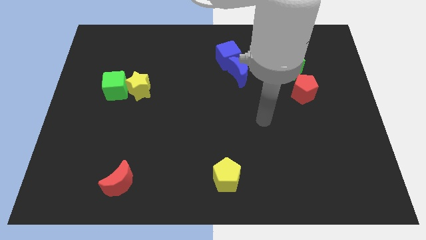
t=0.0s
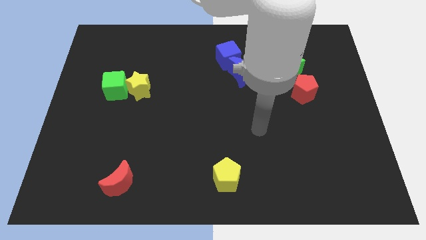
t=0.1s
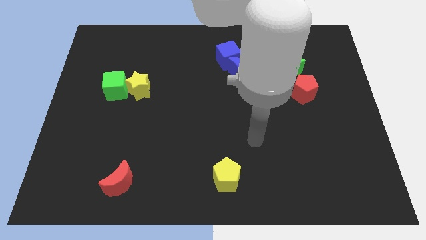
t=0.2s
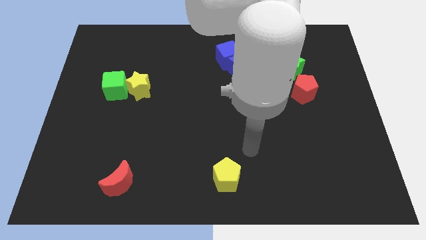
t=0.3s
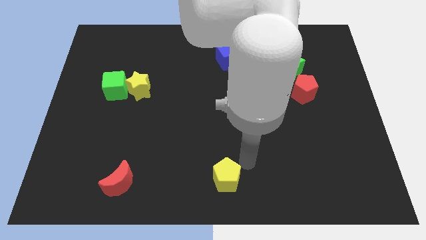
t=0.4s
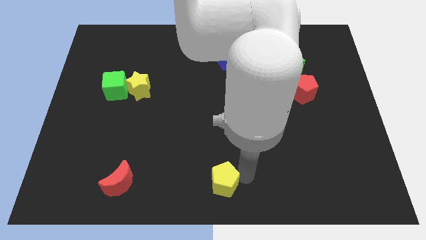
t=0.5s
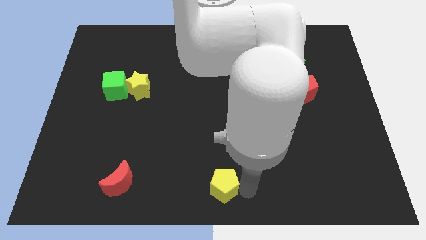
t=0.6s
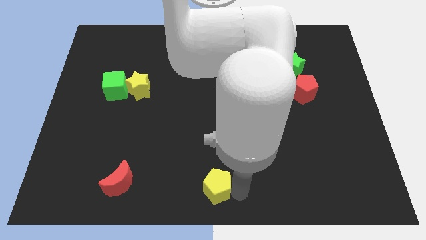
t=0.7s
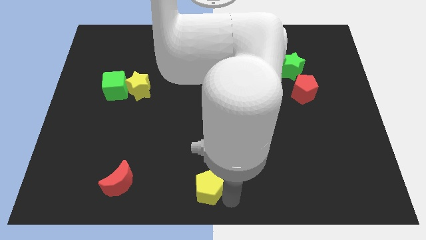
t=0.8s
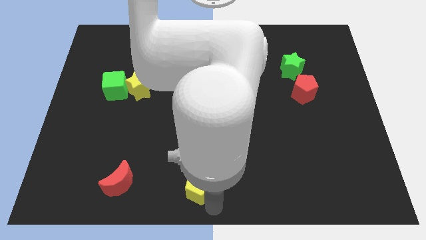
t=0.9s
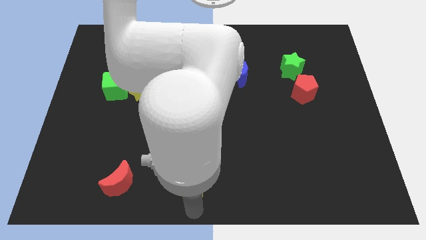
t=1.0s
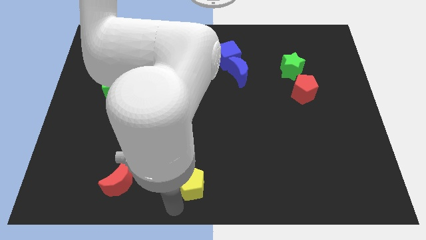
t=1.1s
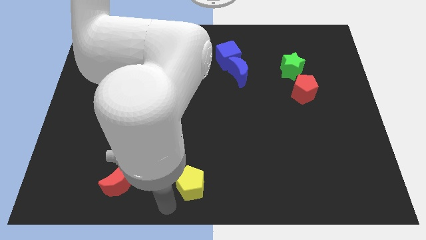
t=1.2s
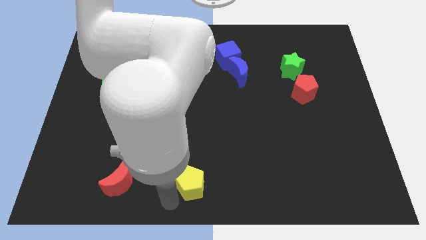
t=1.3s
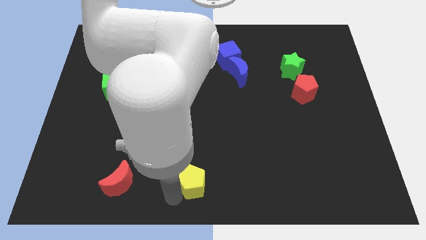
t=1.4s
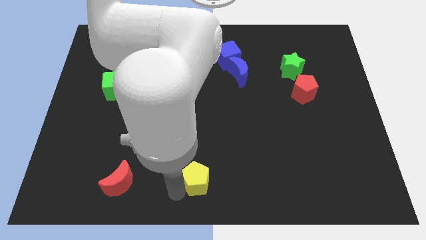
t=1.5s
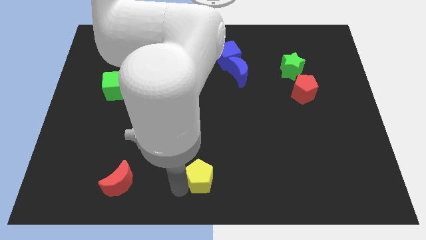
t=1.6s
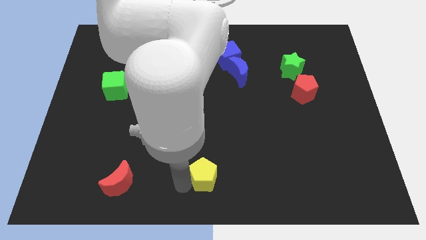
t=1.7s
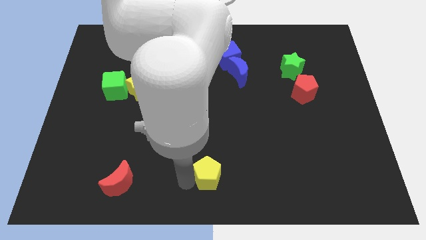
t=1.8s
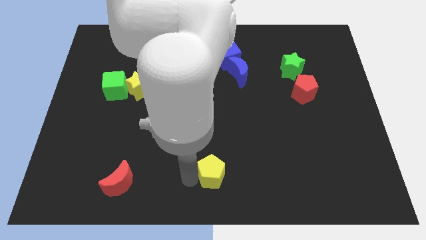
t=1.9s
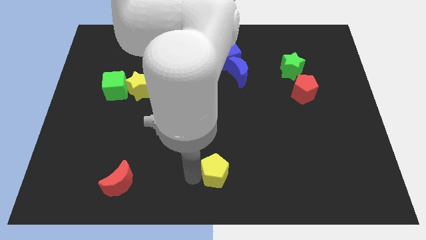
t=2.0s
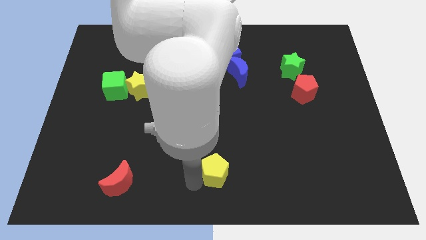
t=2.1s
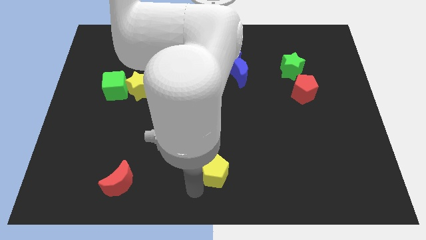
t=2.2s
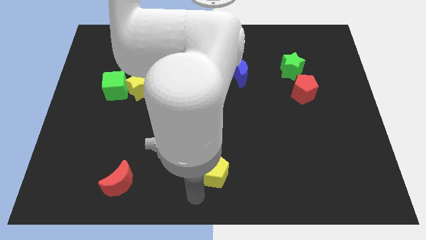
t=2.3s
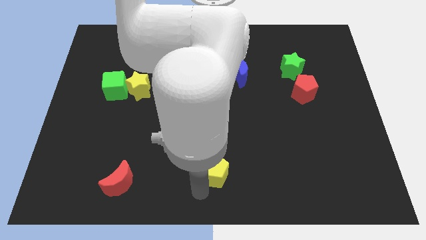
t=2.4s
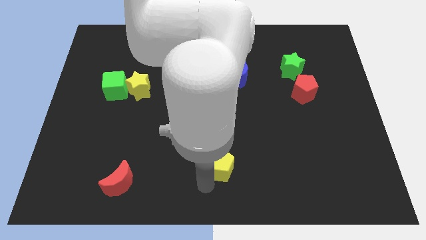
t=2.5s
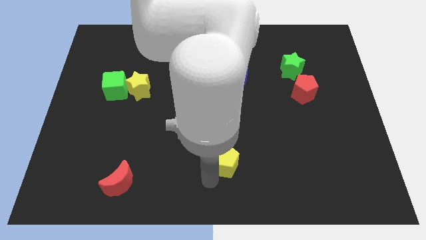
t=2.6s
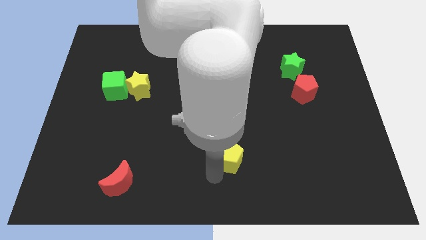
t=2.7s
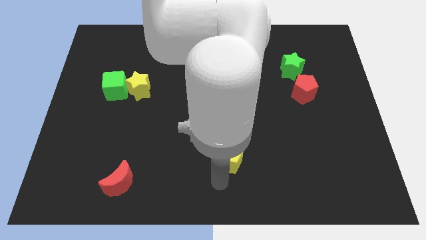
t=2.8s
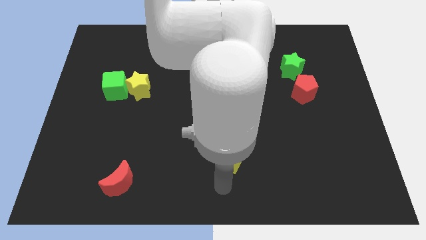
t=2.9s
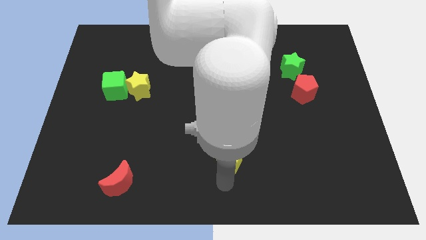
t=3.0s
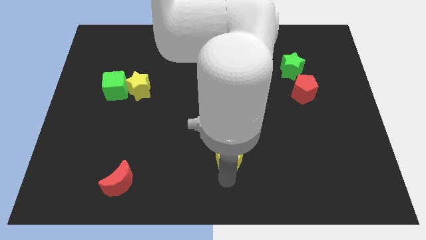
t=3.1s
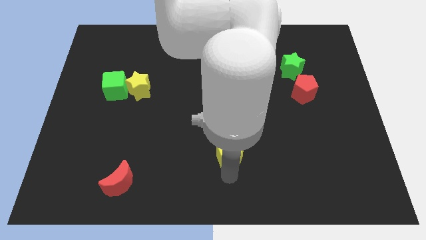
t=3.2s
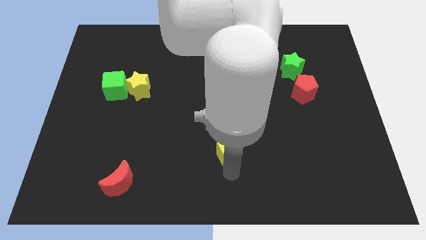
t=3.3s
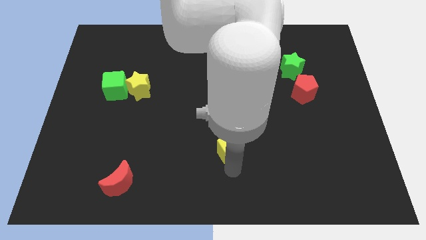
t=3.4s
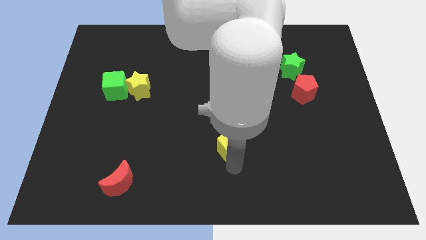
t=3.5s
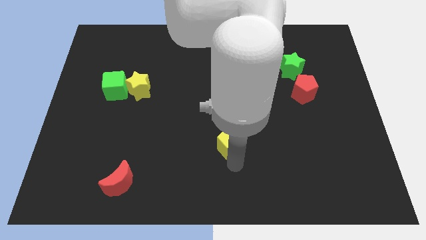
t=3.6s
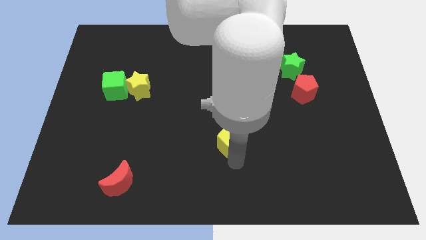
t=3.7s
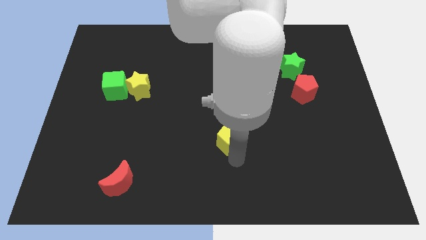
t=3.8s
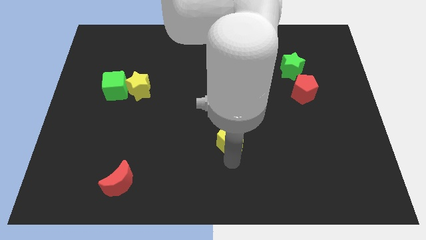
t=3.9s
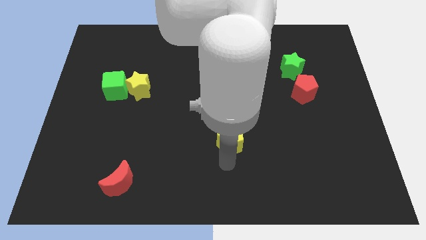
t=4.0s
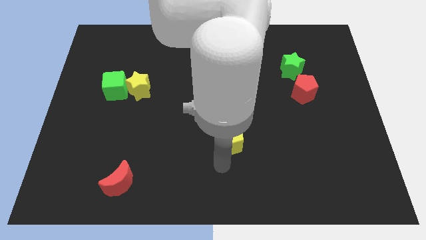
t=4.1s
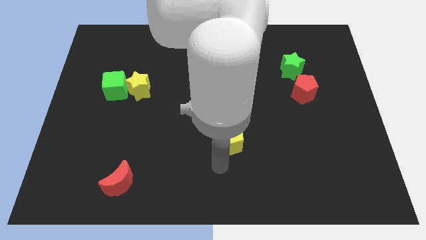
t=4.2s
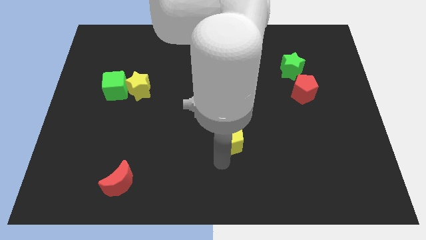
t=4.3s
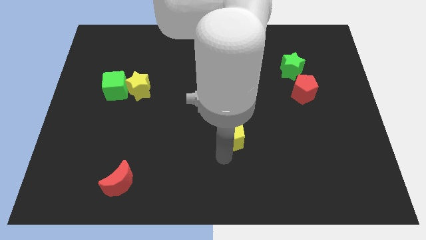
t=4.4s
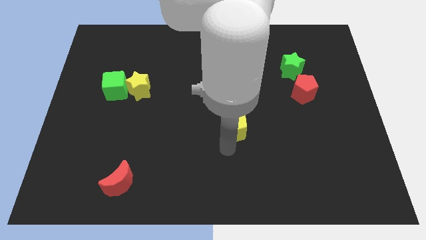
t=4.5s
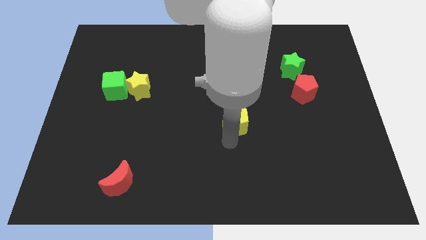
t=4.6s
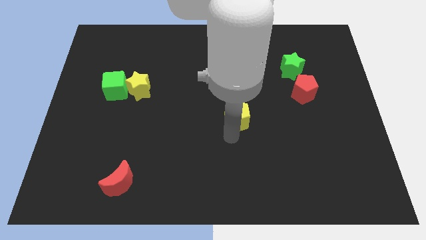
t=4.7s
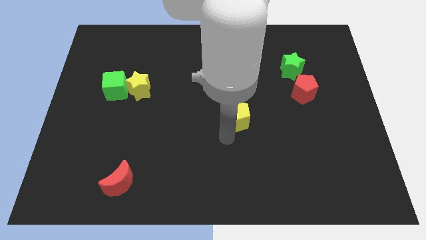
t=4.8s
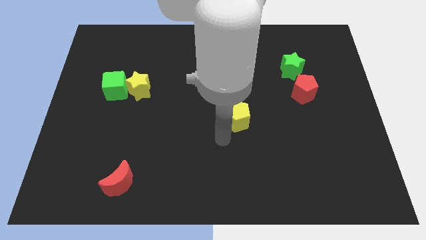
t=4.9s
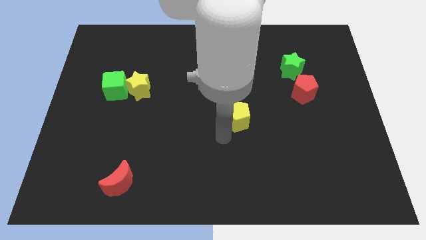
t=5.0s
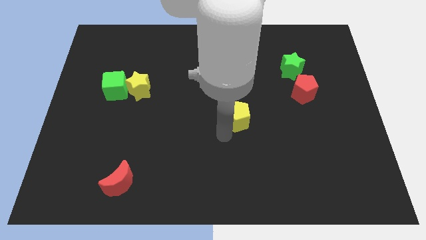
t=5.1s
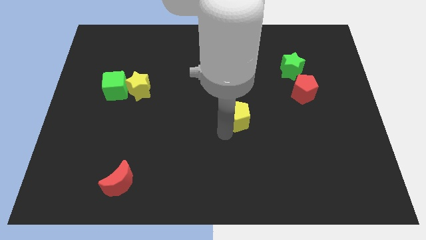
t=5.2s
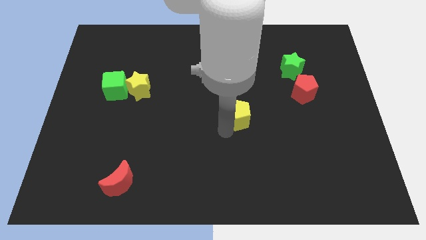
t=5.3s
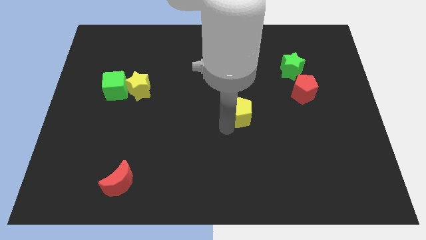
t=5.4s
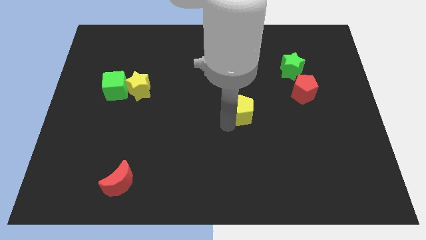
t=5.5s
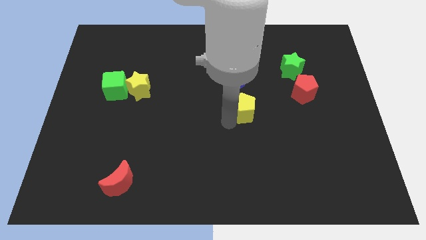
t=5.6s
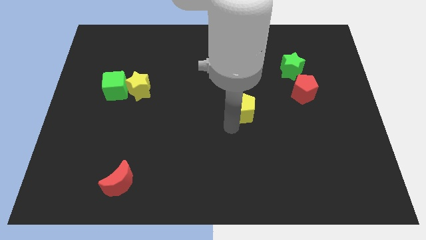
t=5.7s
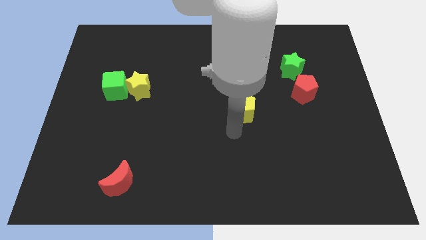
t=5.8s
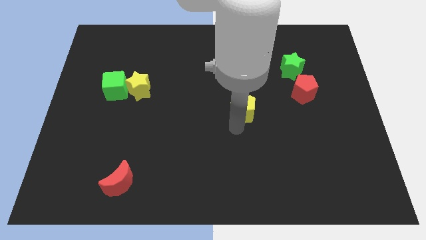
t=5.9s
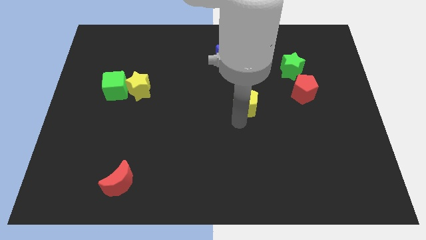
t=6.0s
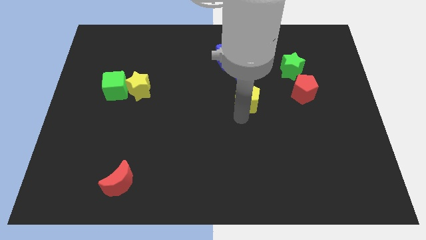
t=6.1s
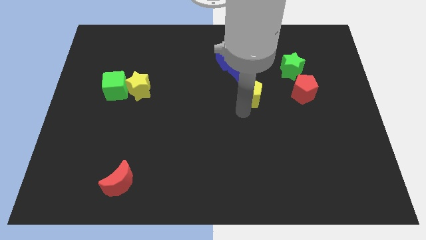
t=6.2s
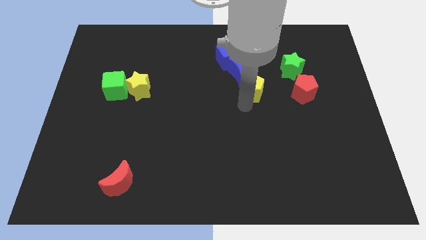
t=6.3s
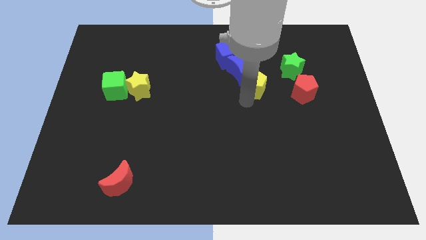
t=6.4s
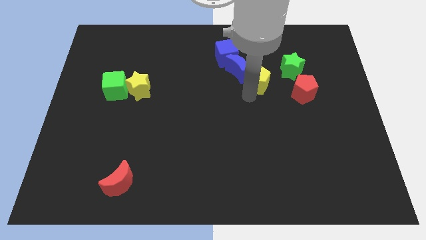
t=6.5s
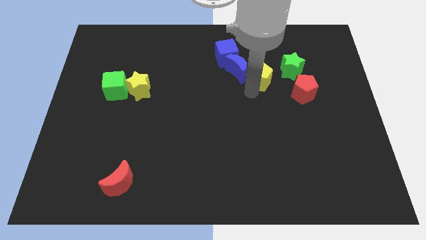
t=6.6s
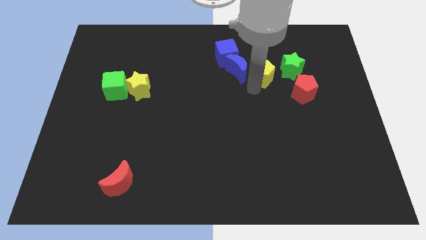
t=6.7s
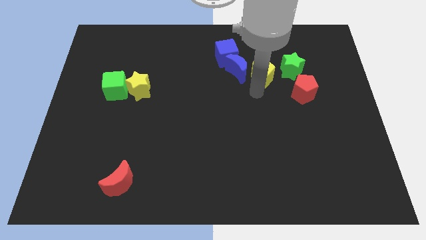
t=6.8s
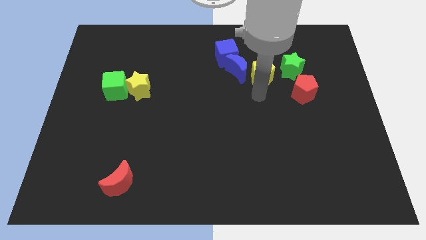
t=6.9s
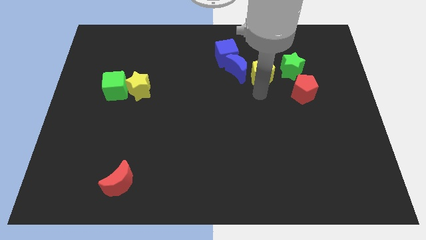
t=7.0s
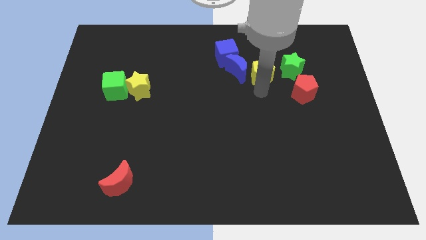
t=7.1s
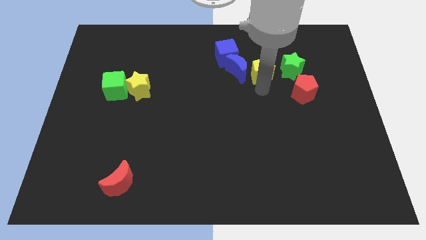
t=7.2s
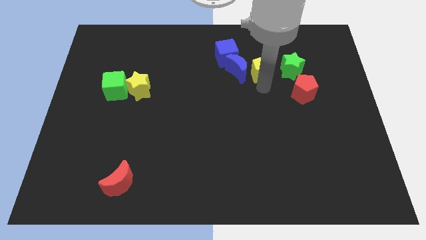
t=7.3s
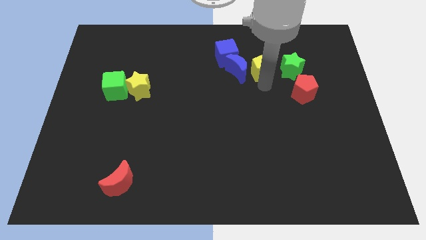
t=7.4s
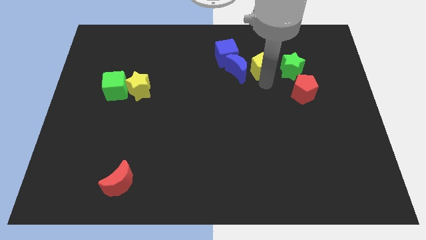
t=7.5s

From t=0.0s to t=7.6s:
move the yellow pentagon to the right of the blue cube

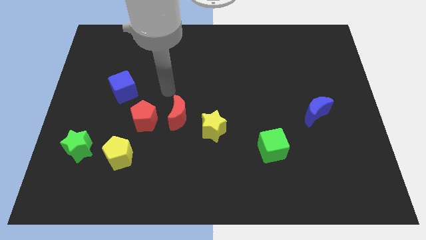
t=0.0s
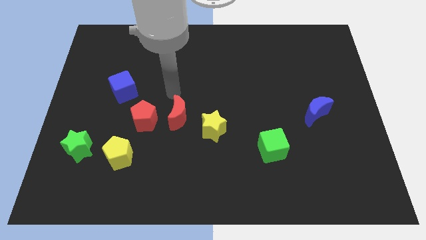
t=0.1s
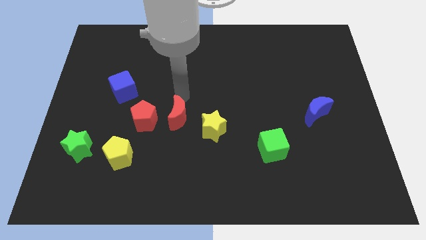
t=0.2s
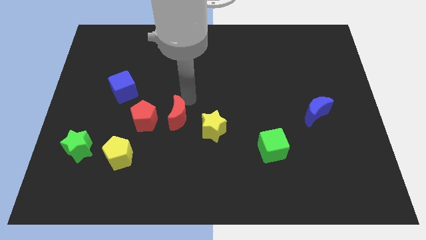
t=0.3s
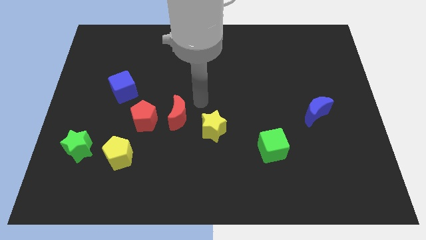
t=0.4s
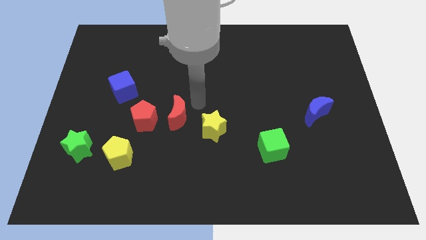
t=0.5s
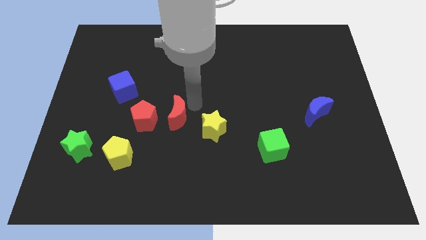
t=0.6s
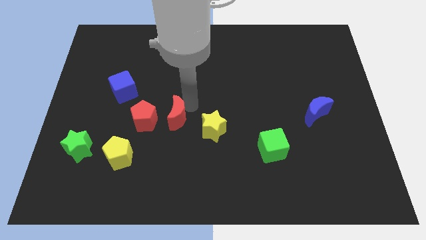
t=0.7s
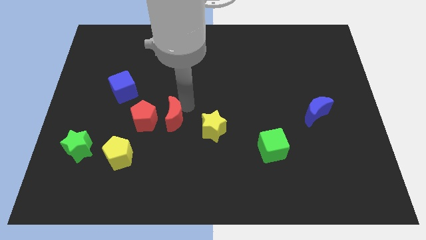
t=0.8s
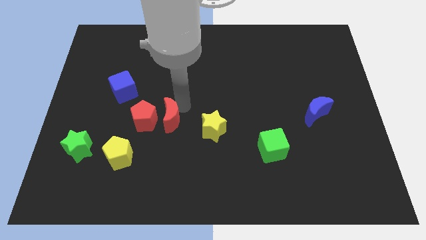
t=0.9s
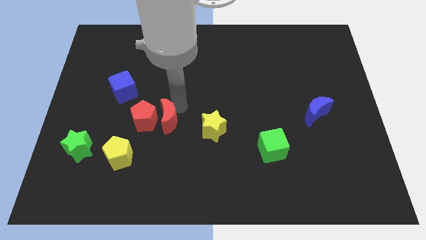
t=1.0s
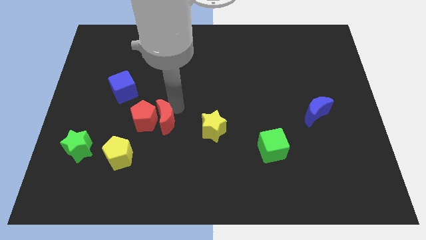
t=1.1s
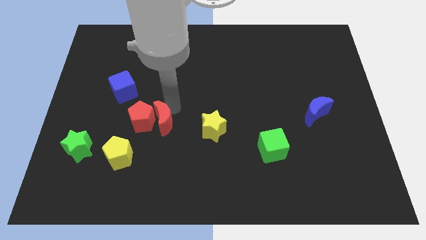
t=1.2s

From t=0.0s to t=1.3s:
slide the red moon diagonally up and to the right of the yellow pentagon
